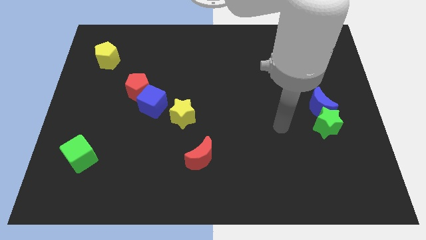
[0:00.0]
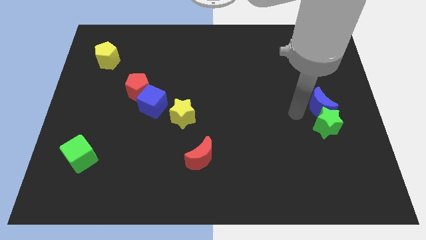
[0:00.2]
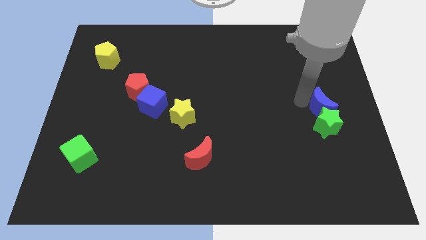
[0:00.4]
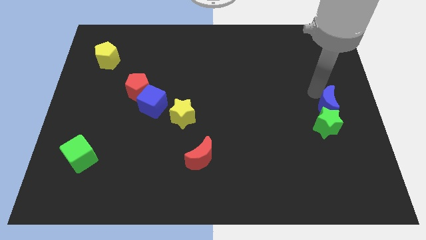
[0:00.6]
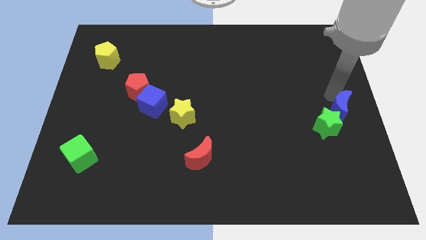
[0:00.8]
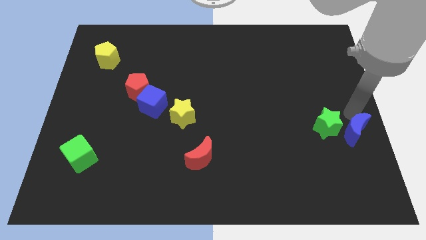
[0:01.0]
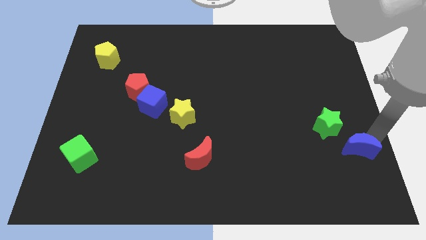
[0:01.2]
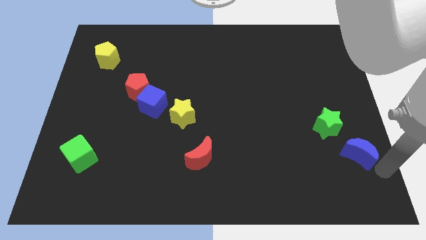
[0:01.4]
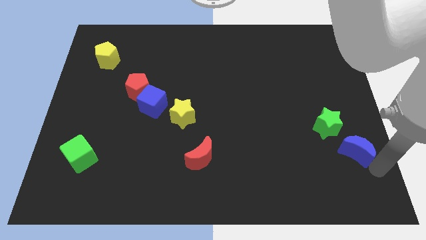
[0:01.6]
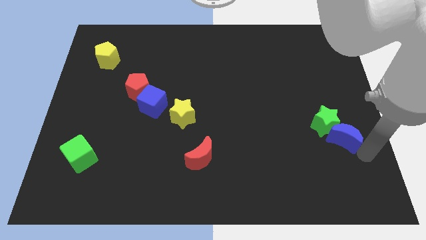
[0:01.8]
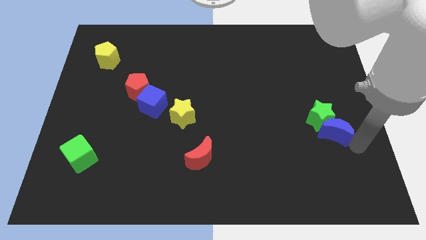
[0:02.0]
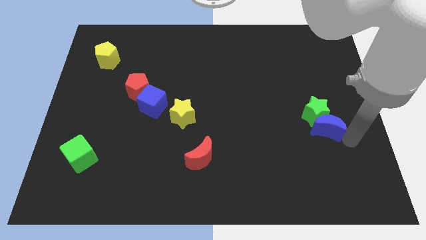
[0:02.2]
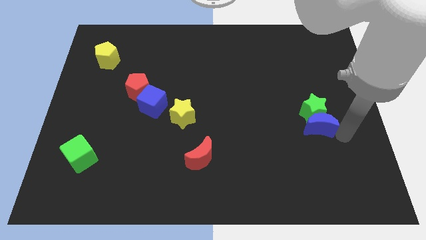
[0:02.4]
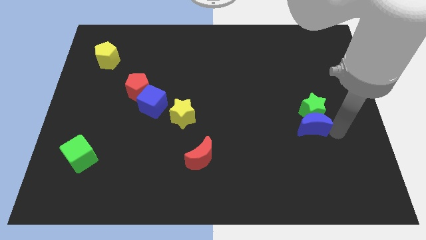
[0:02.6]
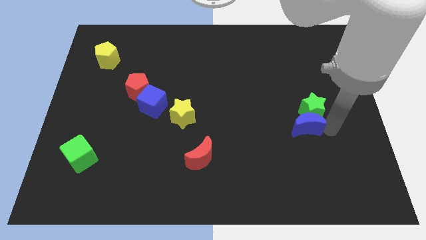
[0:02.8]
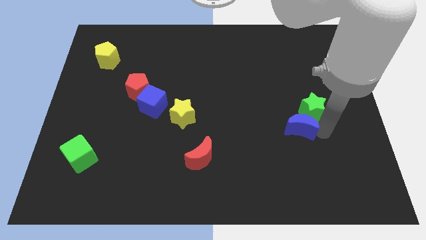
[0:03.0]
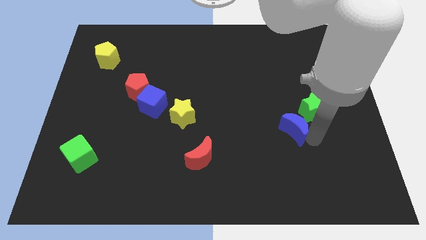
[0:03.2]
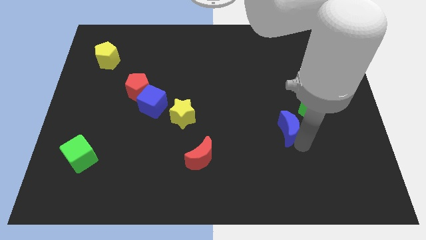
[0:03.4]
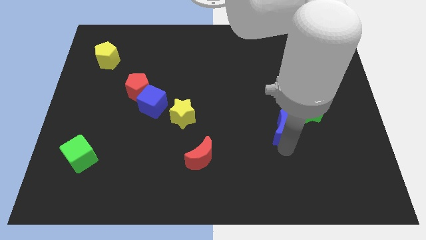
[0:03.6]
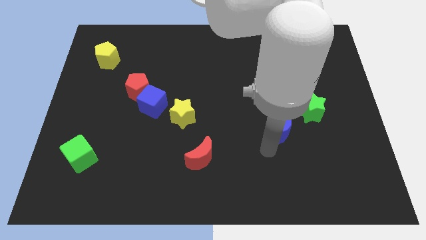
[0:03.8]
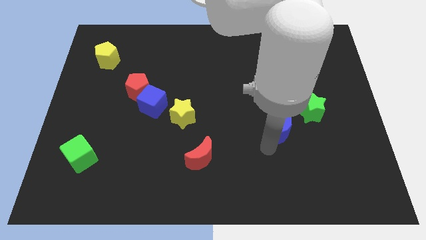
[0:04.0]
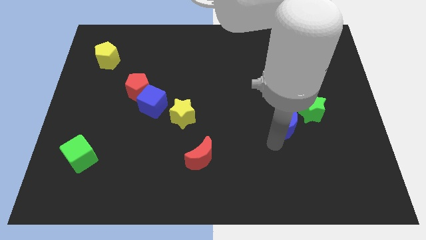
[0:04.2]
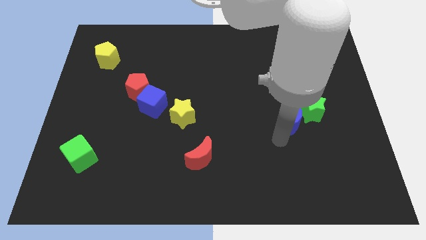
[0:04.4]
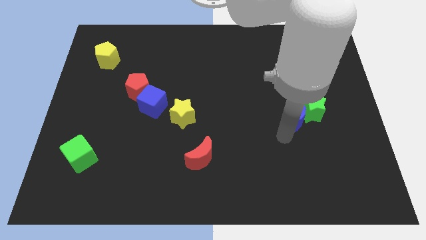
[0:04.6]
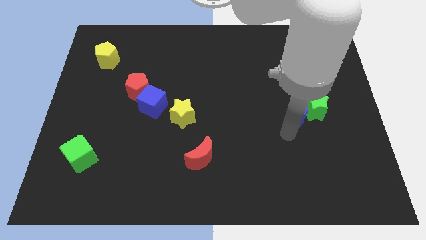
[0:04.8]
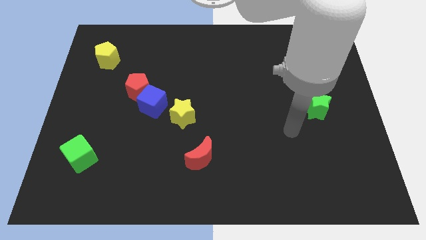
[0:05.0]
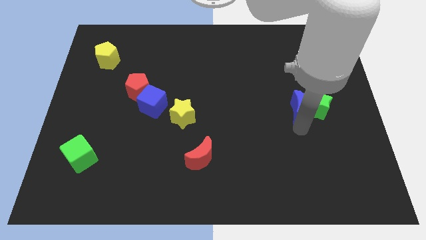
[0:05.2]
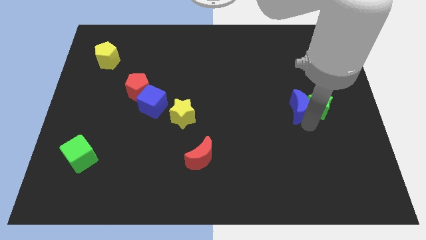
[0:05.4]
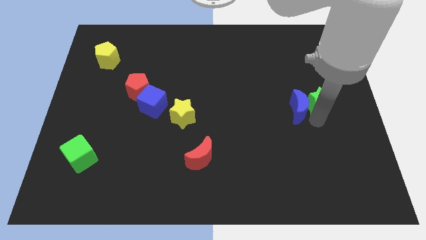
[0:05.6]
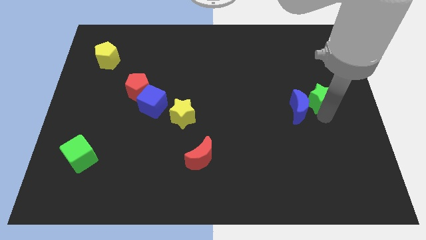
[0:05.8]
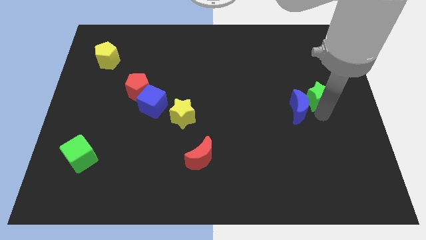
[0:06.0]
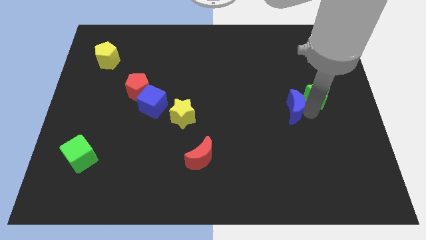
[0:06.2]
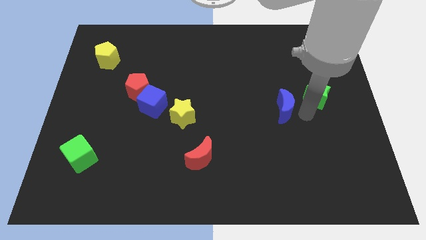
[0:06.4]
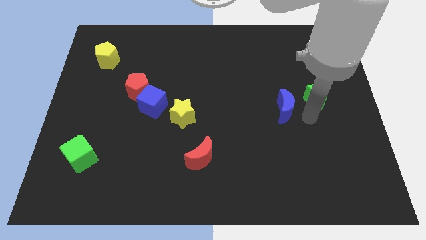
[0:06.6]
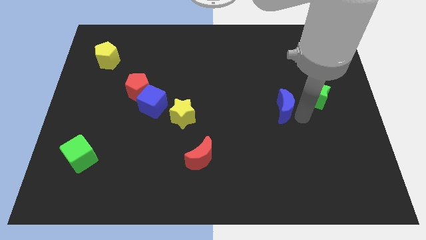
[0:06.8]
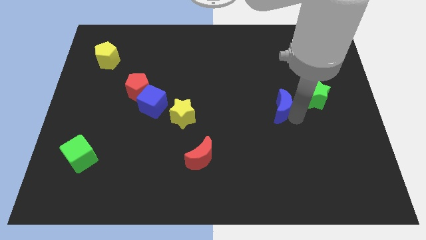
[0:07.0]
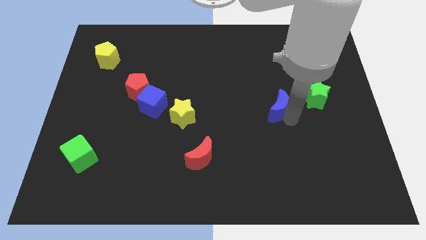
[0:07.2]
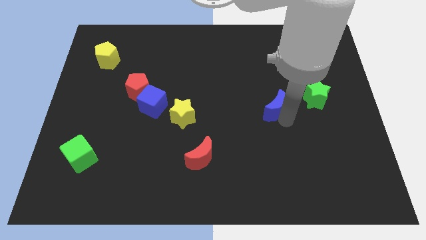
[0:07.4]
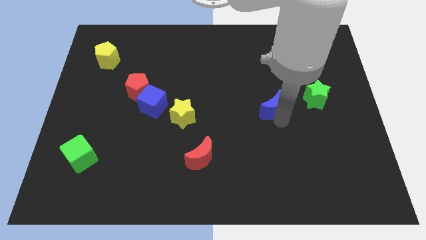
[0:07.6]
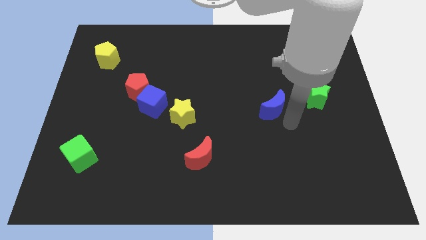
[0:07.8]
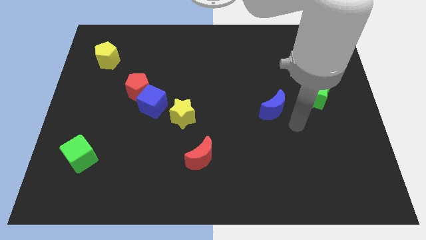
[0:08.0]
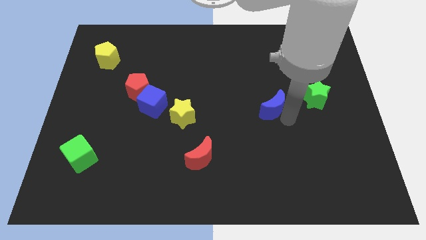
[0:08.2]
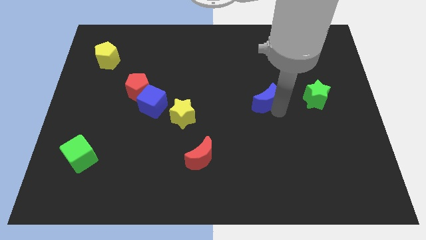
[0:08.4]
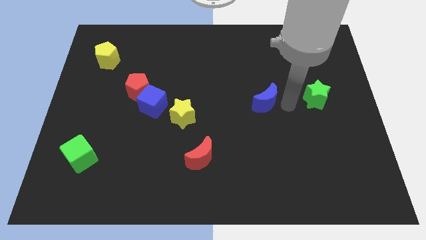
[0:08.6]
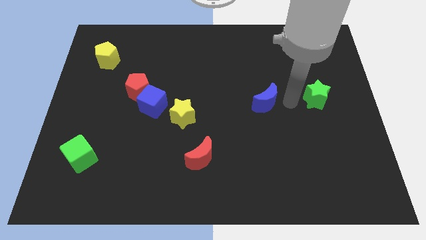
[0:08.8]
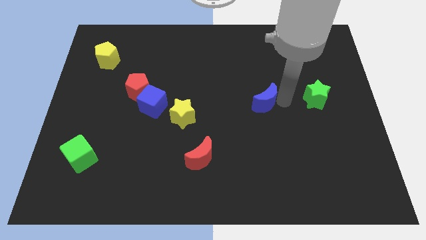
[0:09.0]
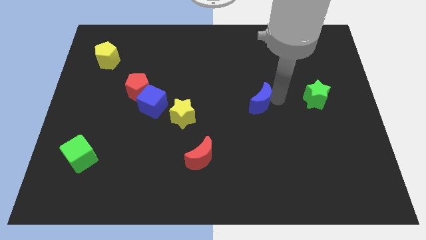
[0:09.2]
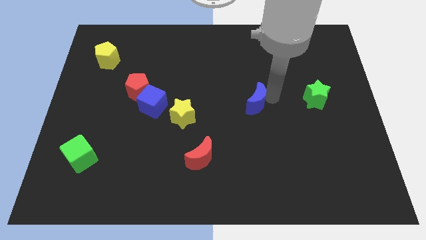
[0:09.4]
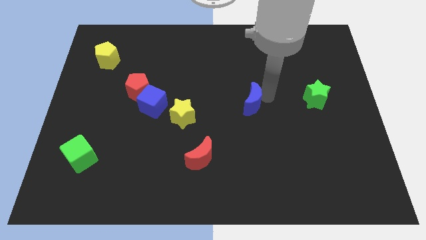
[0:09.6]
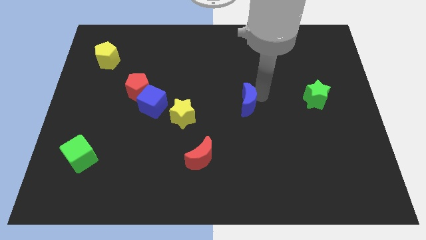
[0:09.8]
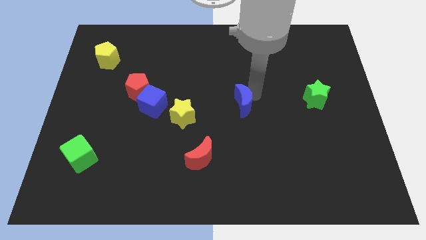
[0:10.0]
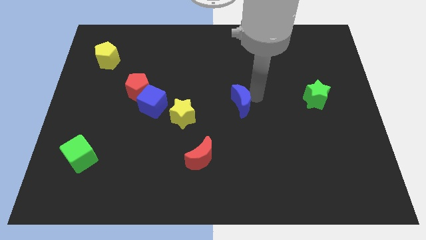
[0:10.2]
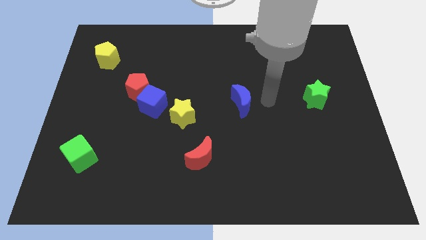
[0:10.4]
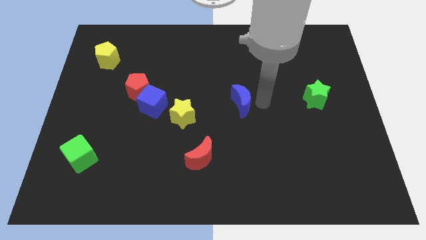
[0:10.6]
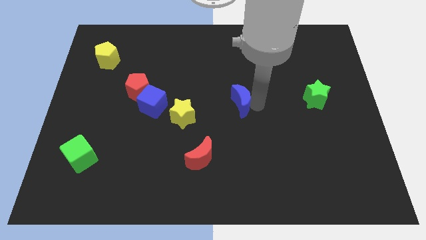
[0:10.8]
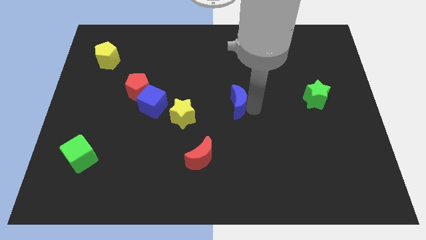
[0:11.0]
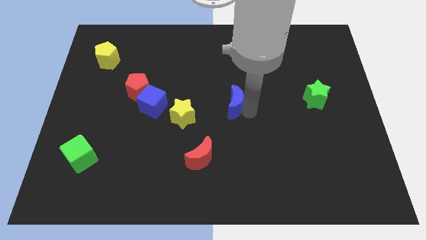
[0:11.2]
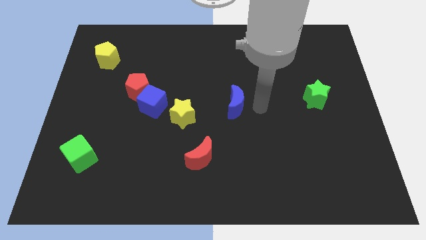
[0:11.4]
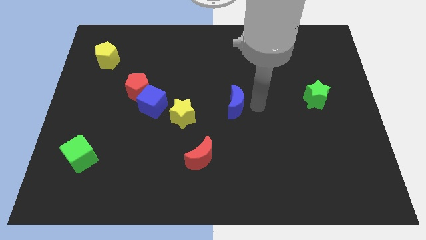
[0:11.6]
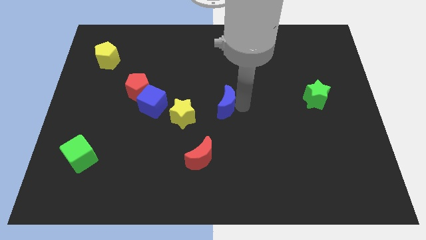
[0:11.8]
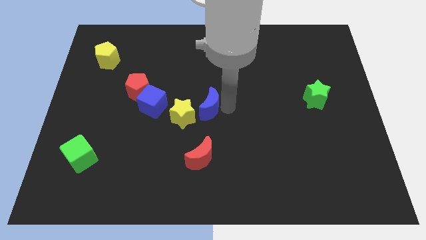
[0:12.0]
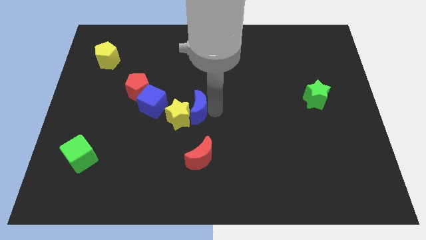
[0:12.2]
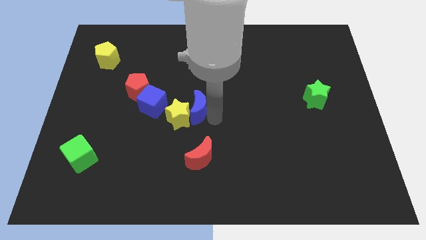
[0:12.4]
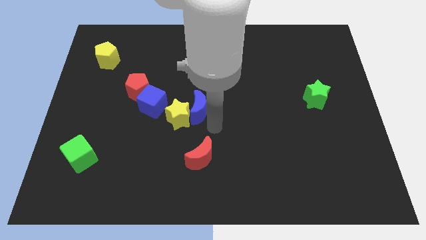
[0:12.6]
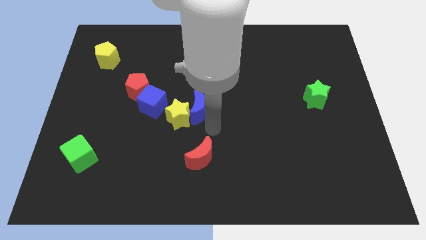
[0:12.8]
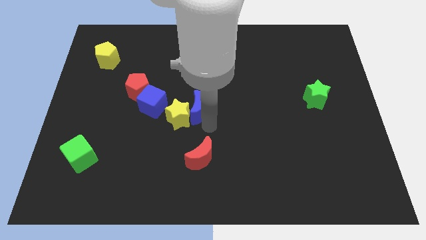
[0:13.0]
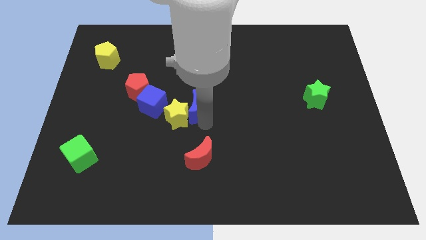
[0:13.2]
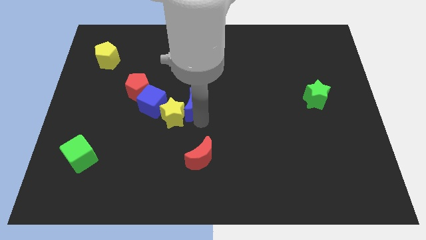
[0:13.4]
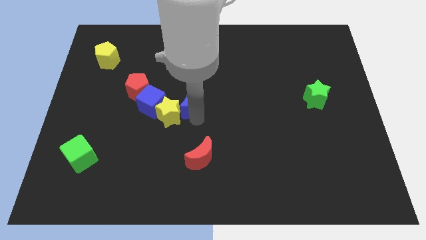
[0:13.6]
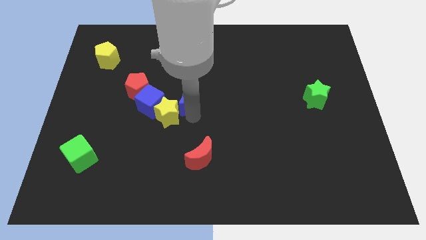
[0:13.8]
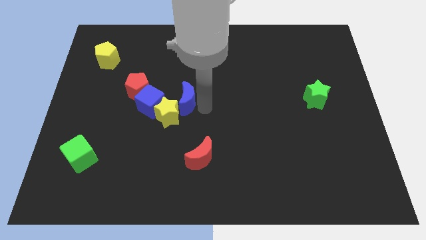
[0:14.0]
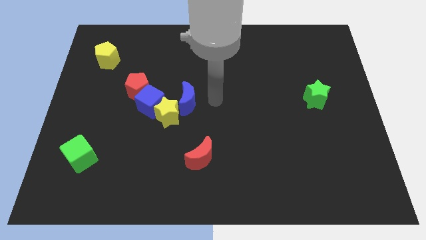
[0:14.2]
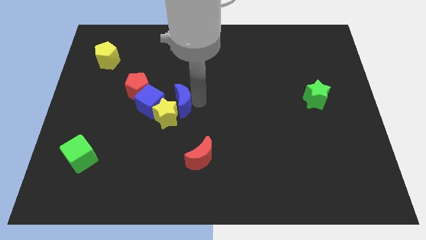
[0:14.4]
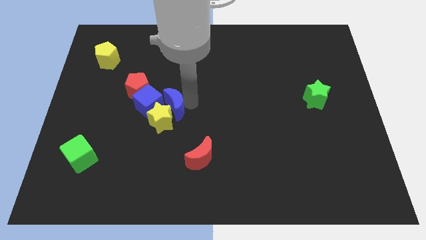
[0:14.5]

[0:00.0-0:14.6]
move the blue moon towards the blue cube

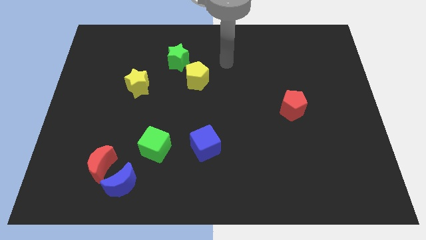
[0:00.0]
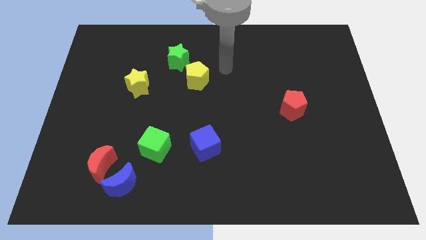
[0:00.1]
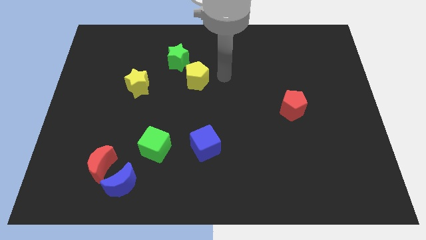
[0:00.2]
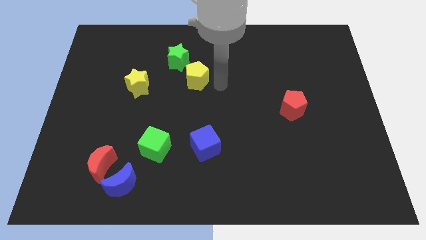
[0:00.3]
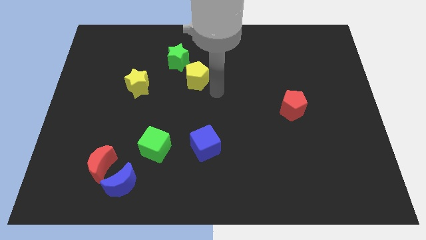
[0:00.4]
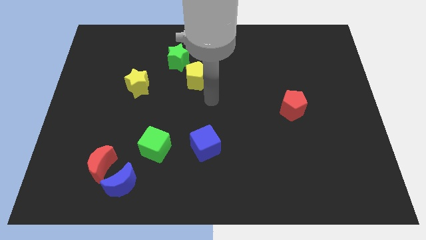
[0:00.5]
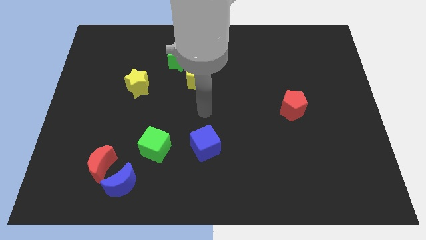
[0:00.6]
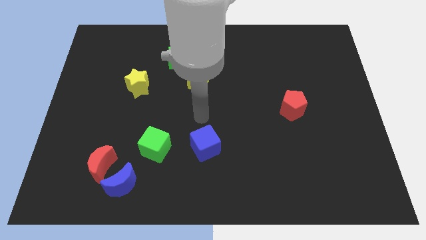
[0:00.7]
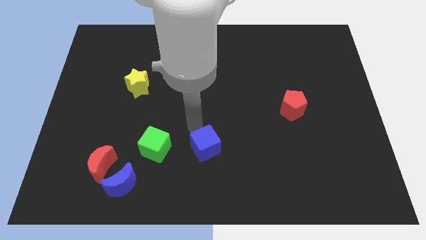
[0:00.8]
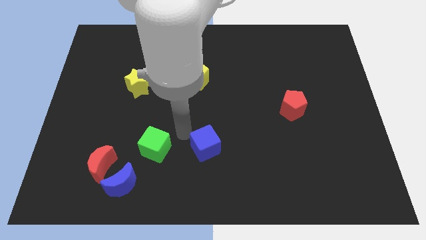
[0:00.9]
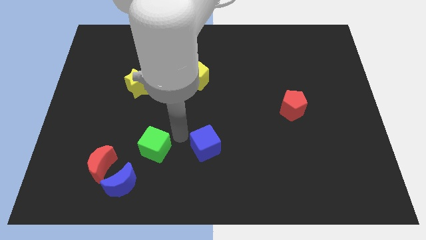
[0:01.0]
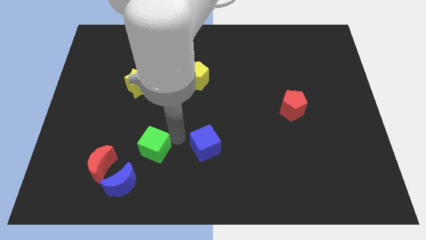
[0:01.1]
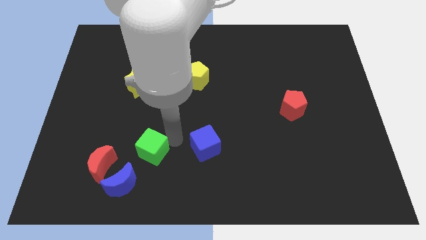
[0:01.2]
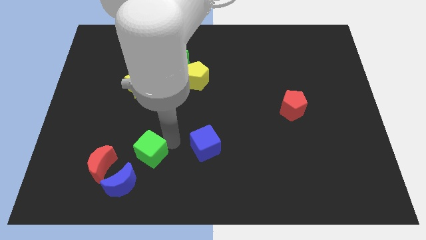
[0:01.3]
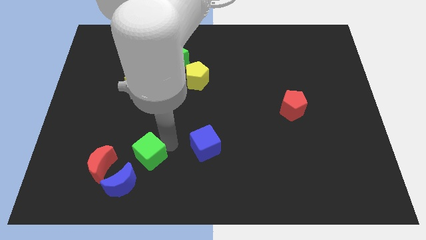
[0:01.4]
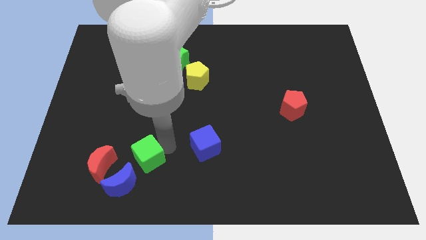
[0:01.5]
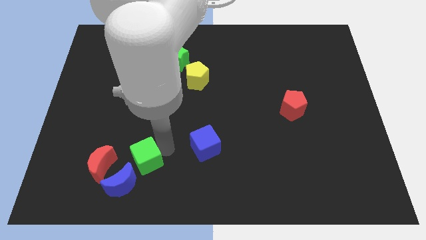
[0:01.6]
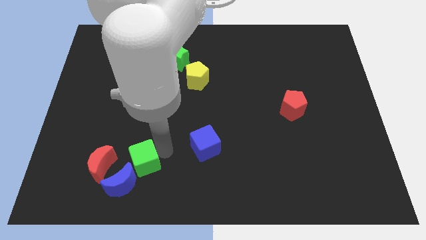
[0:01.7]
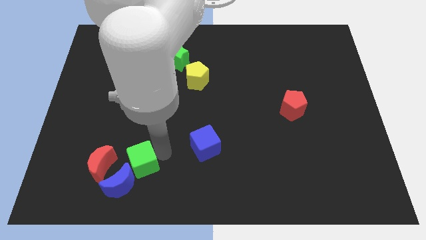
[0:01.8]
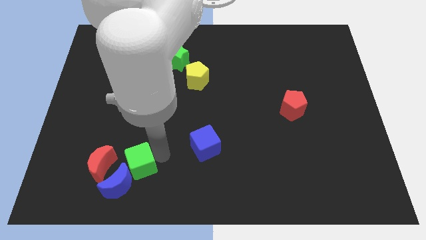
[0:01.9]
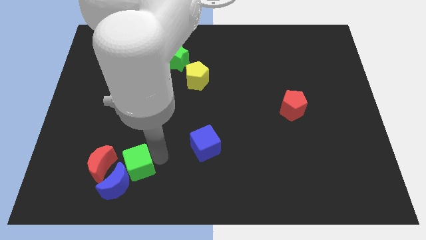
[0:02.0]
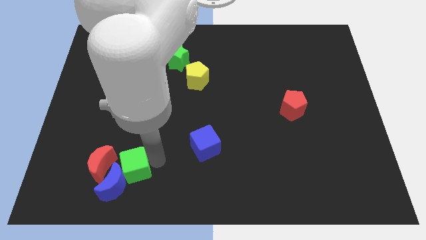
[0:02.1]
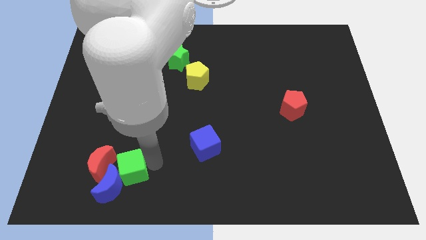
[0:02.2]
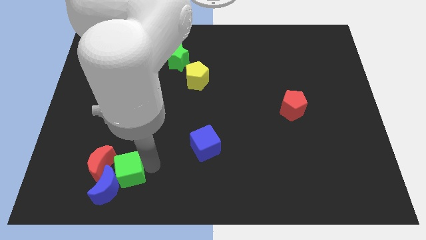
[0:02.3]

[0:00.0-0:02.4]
slide the green cube towards the red moon
